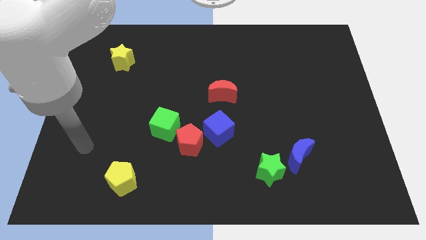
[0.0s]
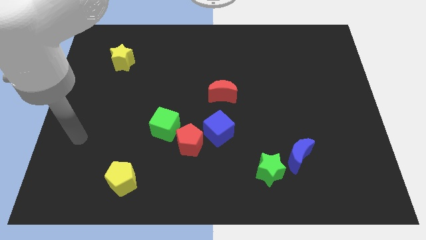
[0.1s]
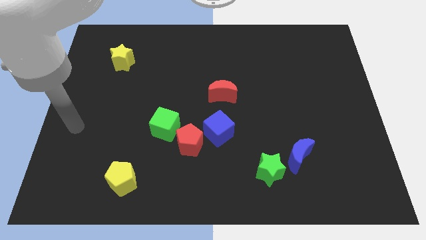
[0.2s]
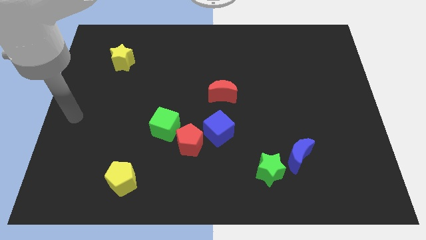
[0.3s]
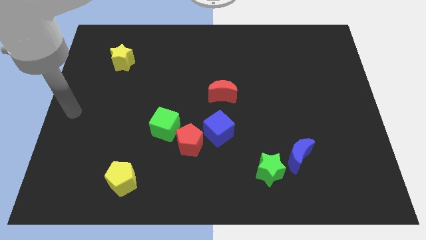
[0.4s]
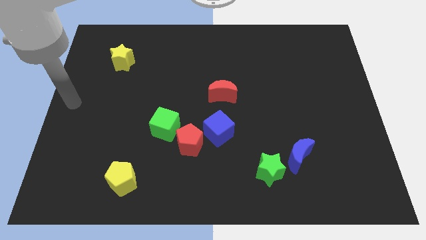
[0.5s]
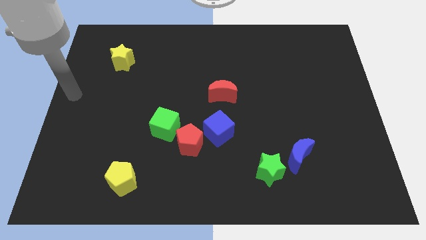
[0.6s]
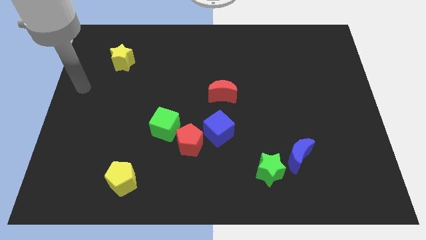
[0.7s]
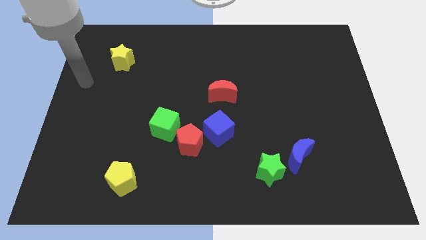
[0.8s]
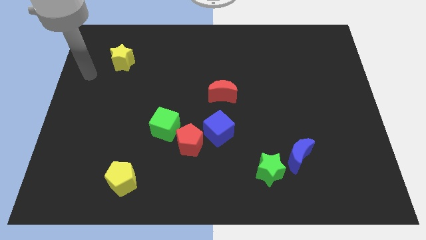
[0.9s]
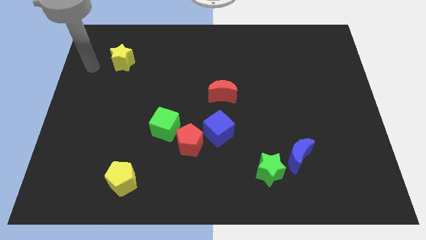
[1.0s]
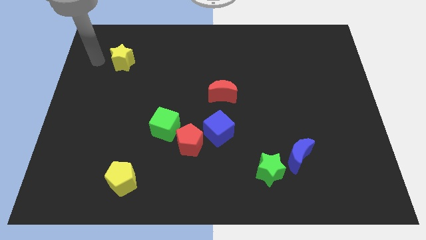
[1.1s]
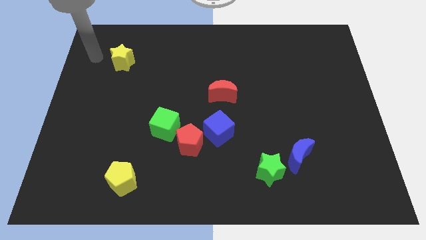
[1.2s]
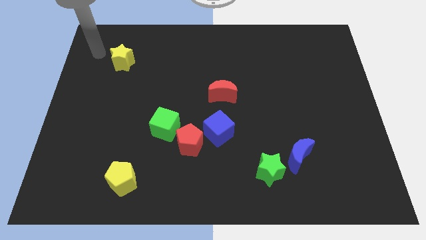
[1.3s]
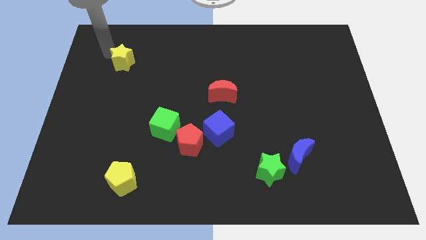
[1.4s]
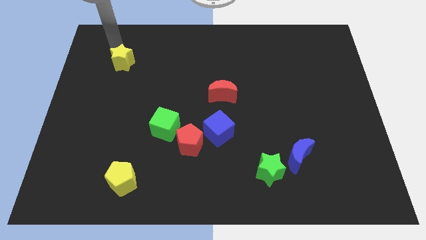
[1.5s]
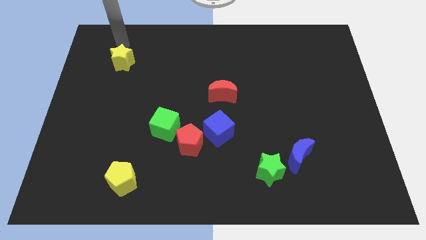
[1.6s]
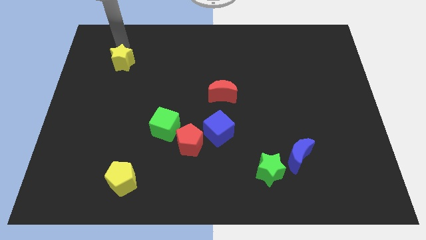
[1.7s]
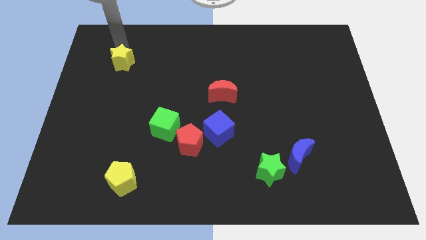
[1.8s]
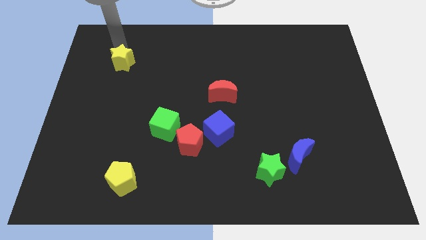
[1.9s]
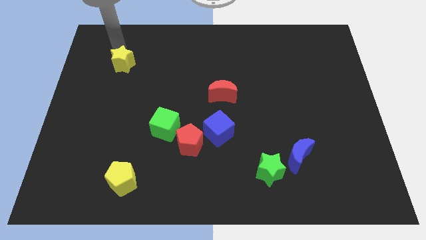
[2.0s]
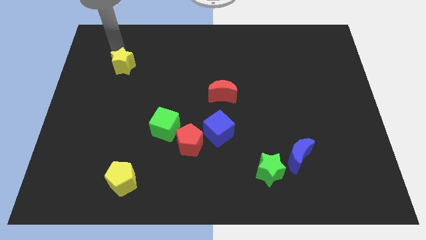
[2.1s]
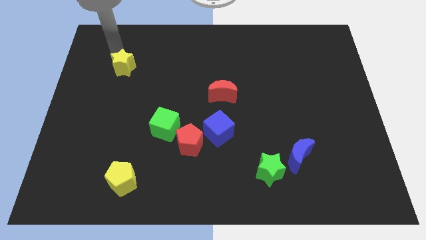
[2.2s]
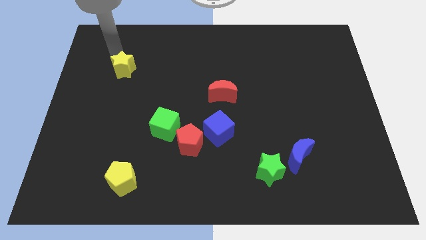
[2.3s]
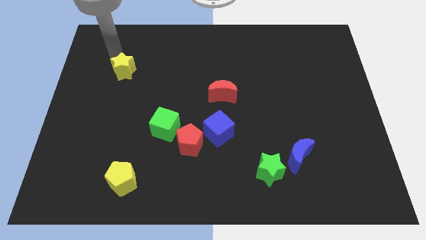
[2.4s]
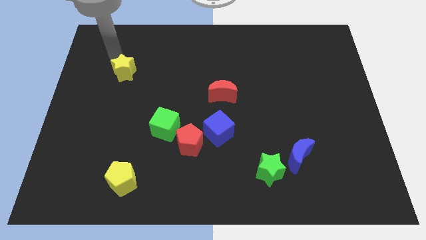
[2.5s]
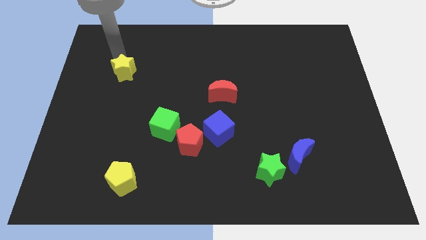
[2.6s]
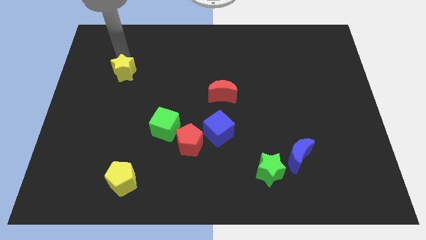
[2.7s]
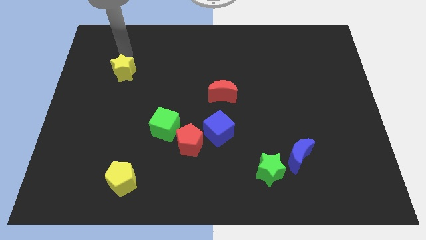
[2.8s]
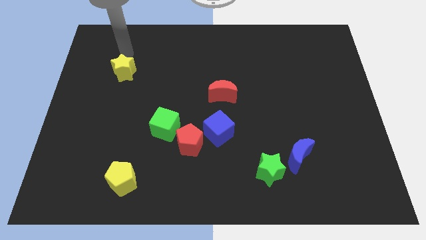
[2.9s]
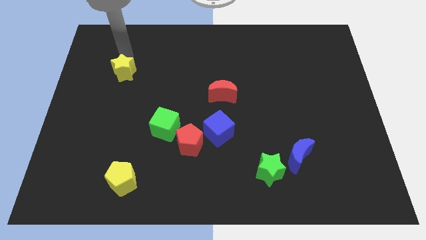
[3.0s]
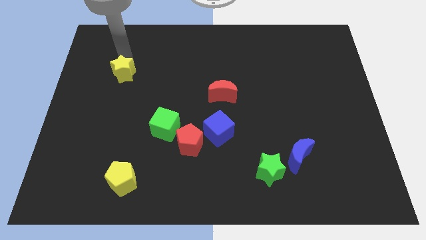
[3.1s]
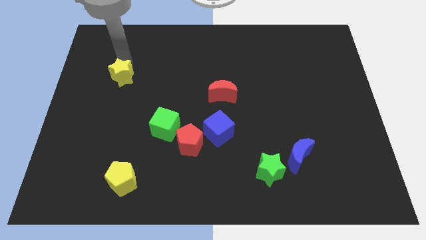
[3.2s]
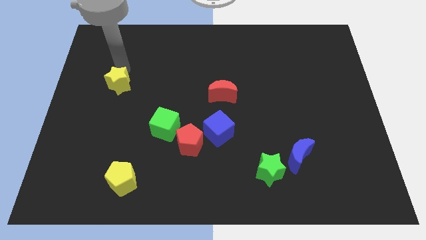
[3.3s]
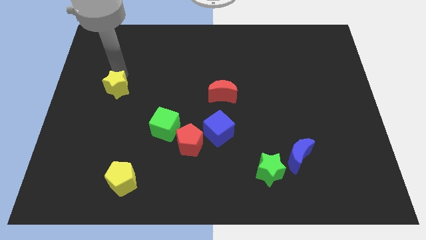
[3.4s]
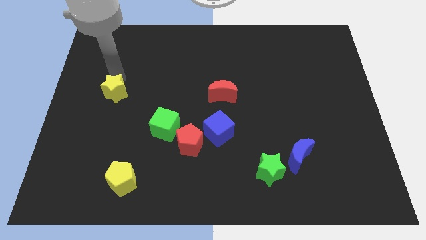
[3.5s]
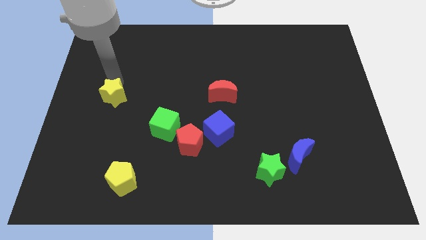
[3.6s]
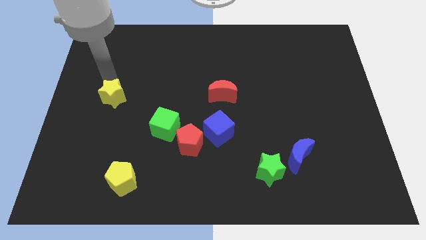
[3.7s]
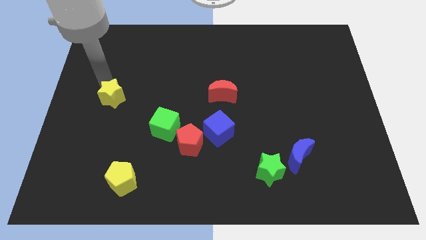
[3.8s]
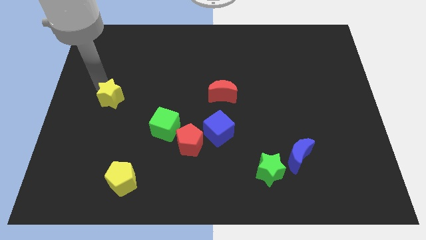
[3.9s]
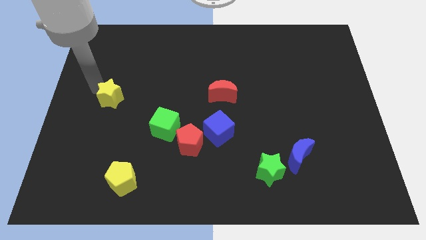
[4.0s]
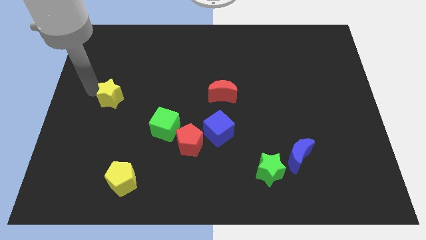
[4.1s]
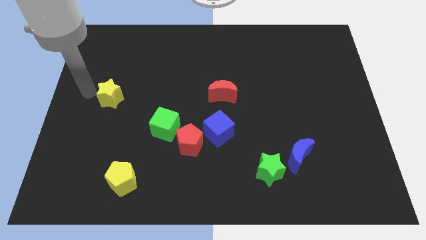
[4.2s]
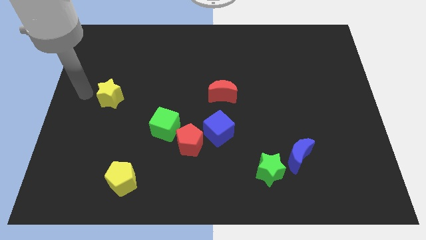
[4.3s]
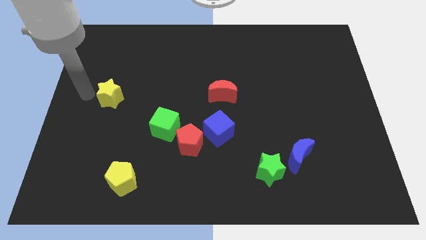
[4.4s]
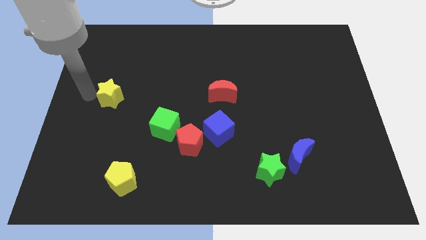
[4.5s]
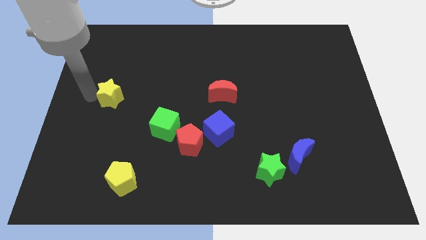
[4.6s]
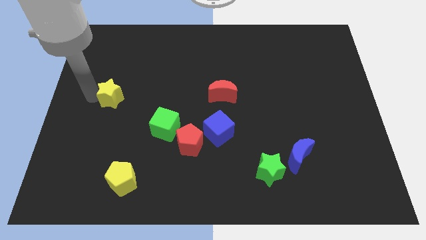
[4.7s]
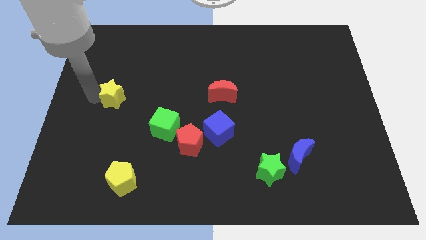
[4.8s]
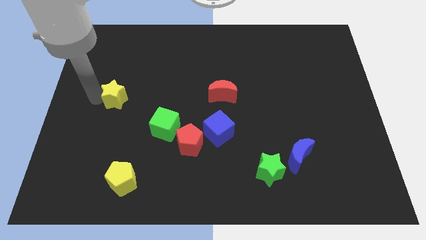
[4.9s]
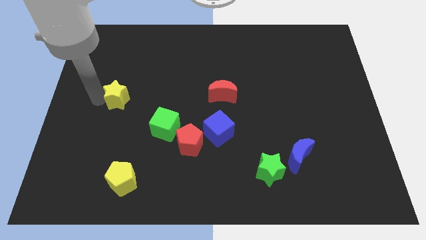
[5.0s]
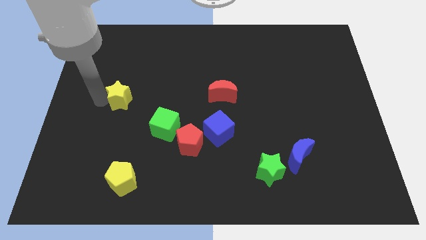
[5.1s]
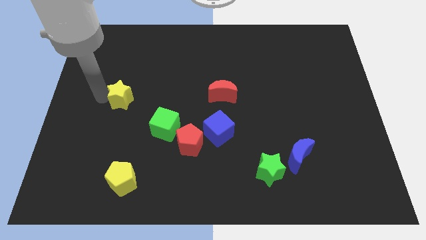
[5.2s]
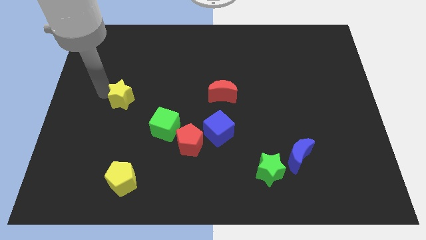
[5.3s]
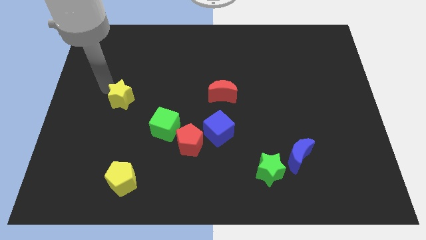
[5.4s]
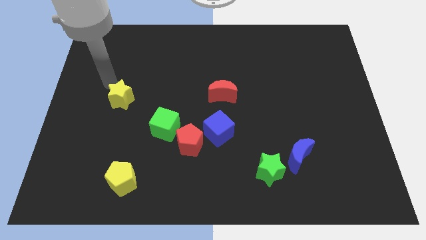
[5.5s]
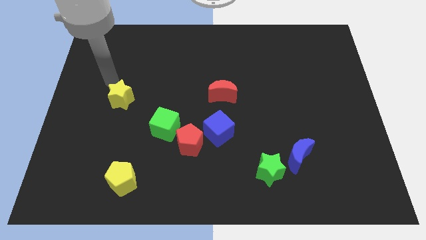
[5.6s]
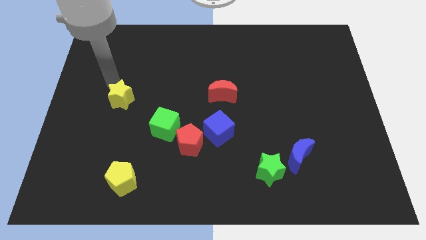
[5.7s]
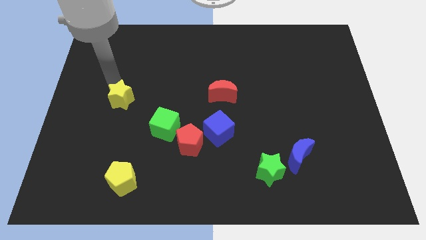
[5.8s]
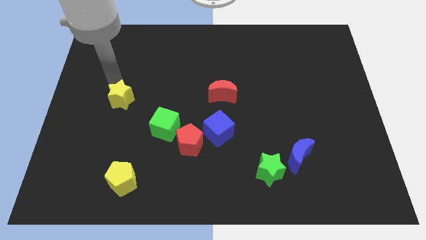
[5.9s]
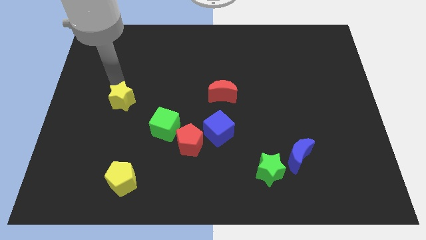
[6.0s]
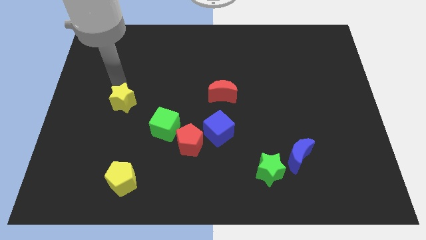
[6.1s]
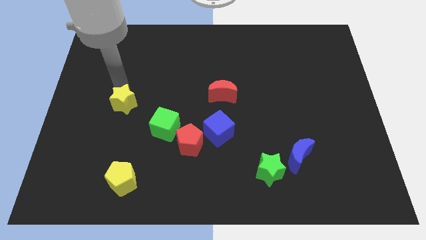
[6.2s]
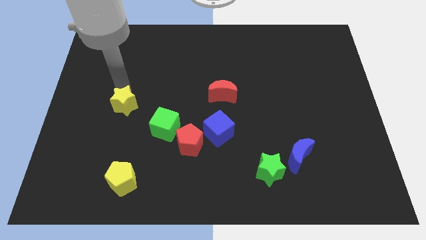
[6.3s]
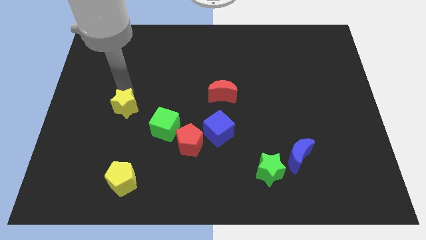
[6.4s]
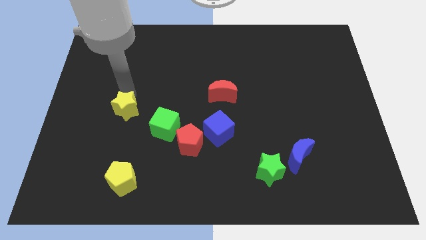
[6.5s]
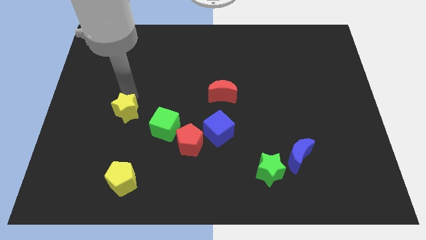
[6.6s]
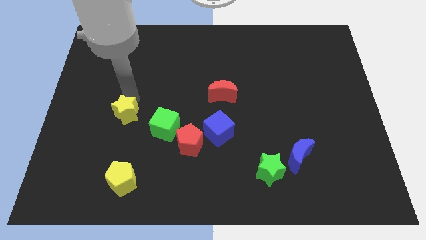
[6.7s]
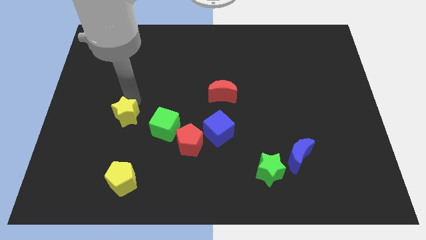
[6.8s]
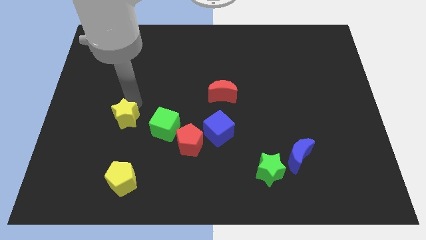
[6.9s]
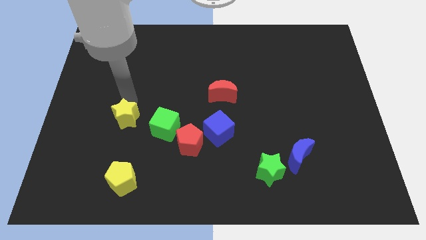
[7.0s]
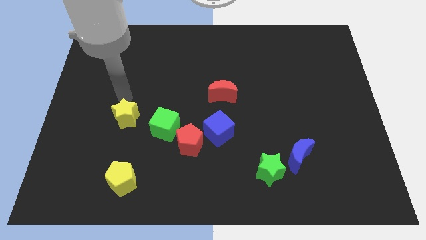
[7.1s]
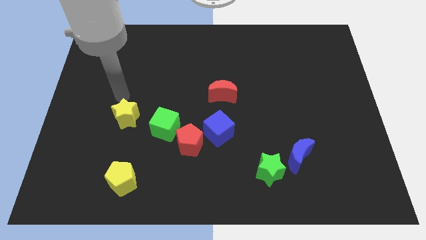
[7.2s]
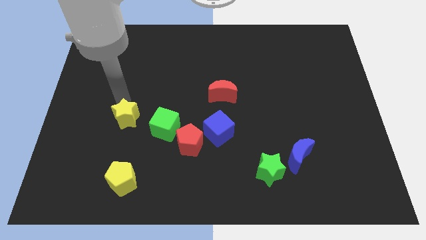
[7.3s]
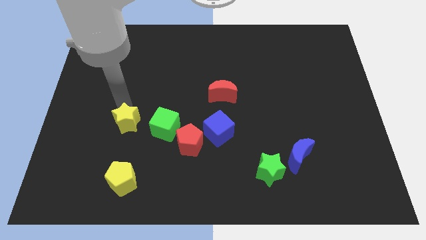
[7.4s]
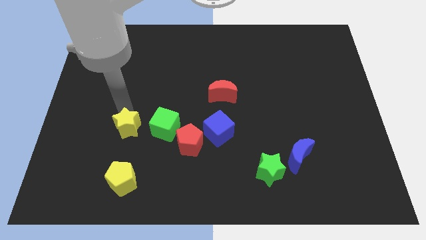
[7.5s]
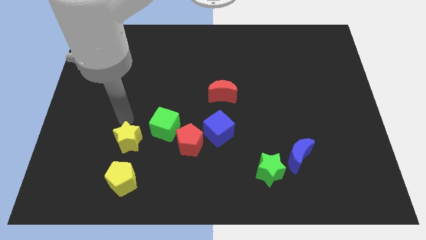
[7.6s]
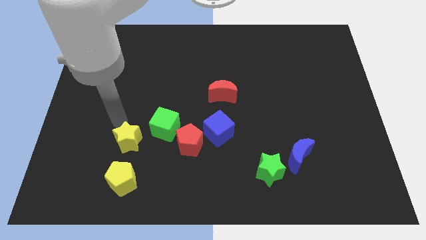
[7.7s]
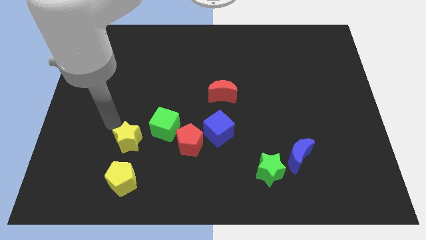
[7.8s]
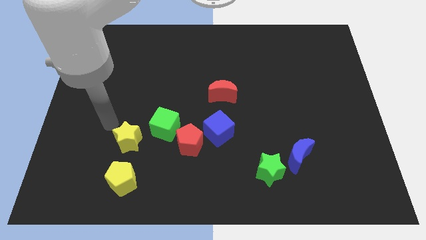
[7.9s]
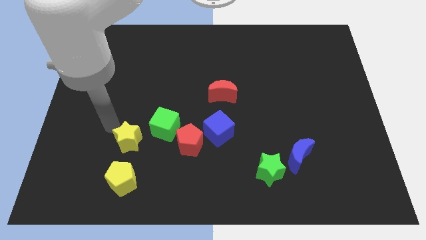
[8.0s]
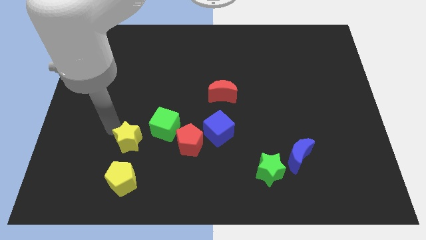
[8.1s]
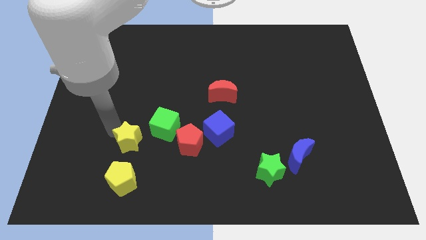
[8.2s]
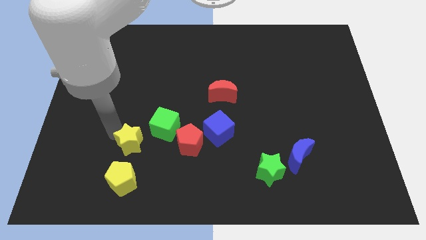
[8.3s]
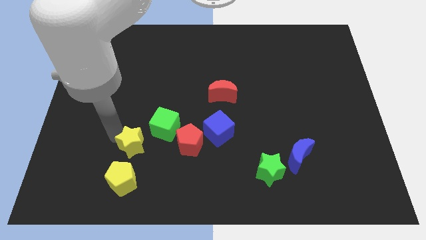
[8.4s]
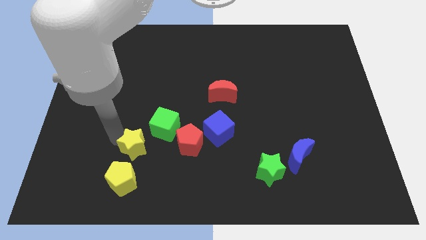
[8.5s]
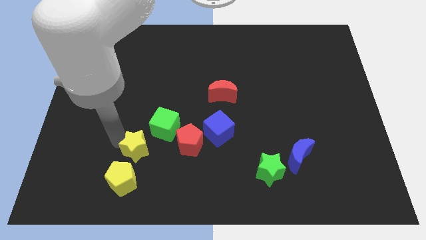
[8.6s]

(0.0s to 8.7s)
push the yellow star to the top right side of the yellow pentagon
